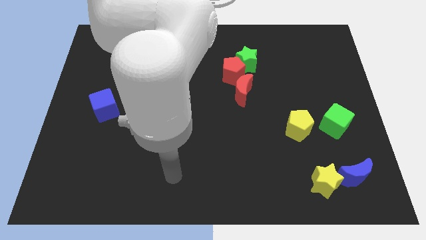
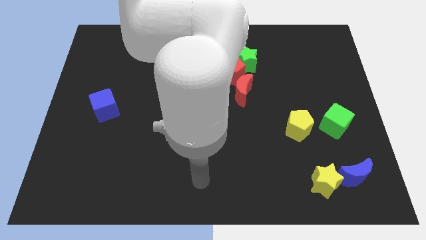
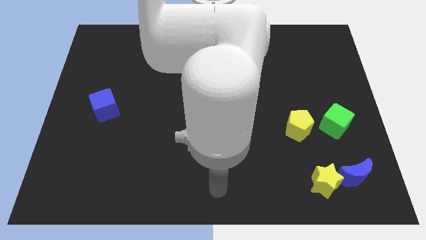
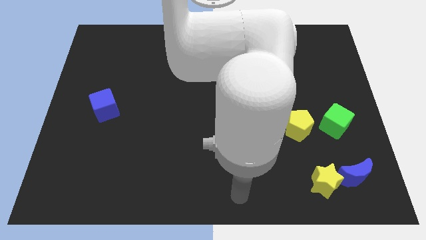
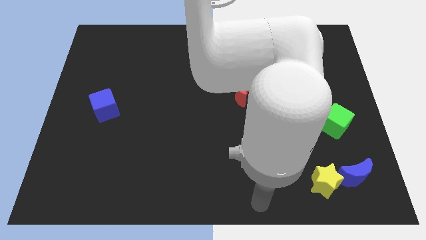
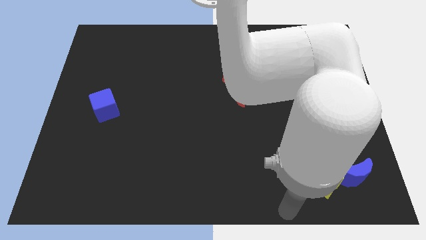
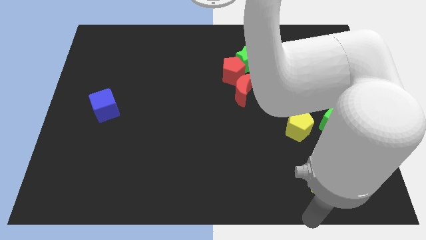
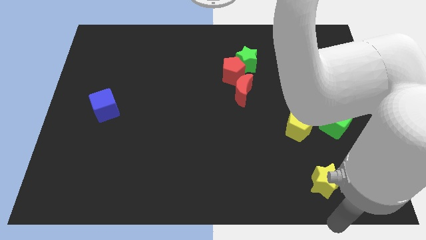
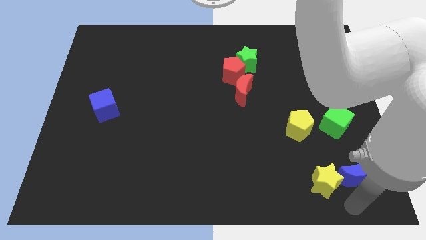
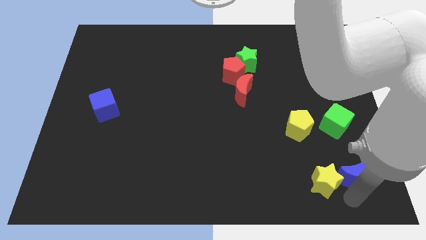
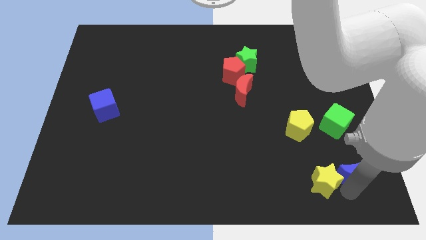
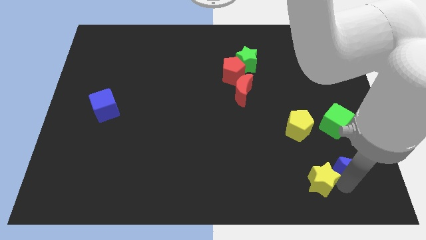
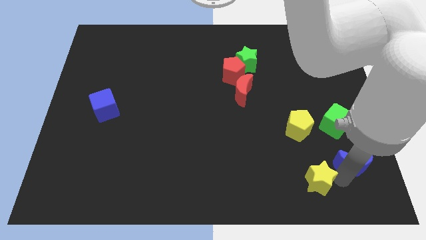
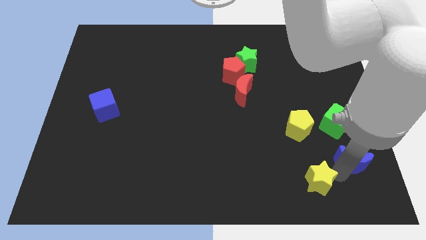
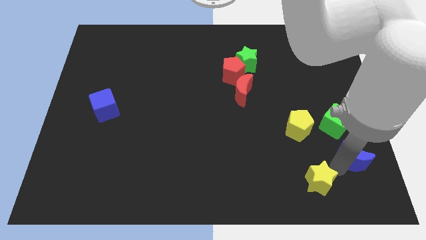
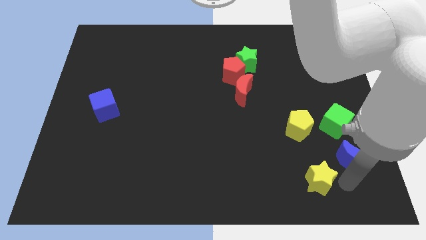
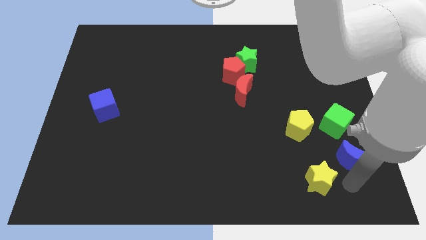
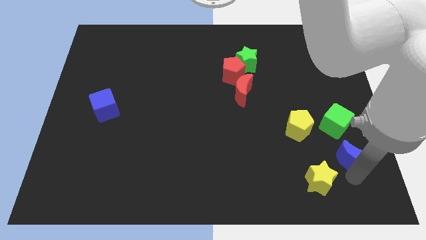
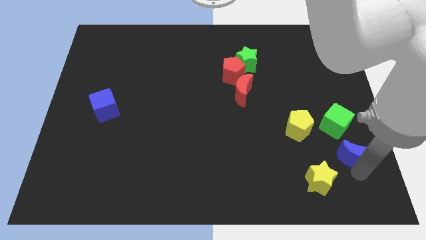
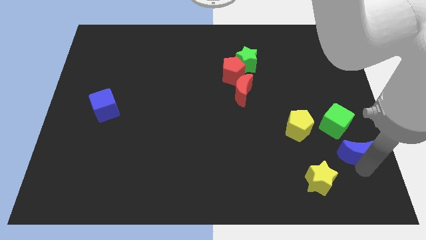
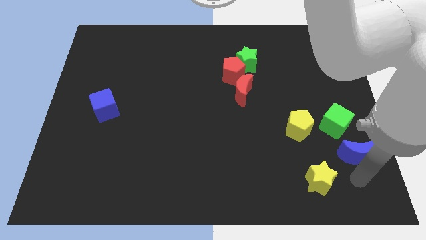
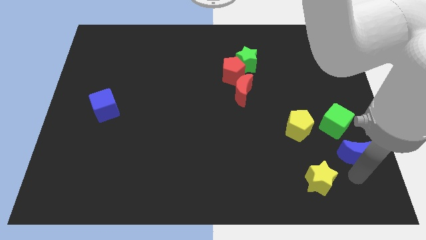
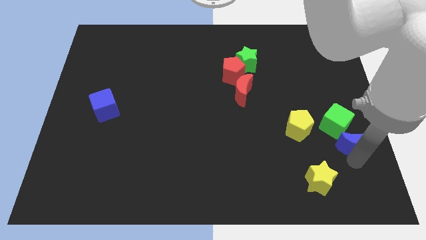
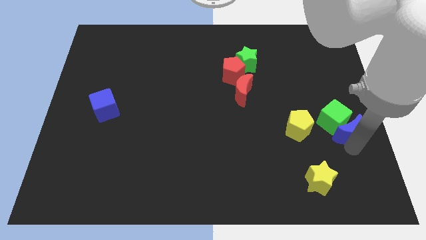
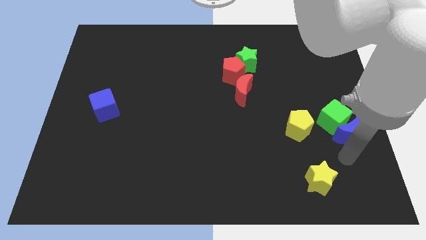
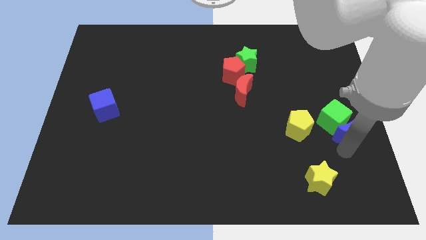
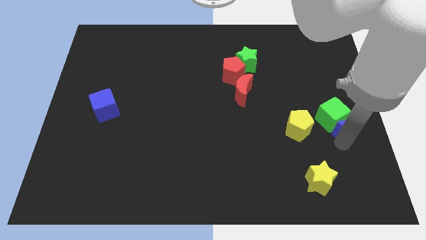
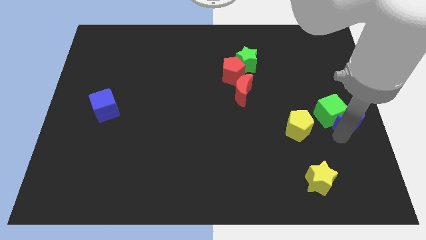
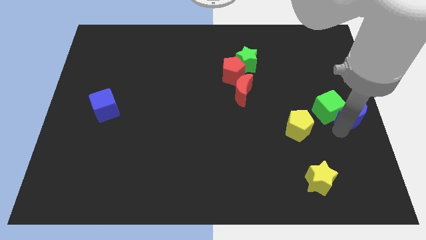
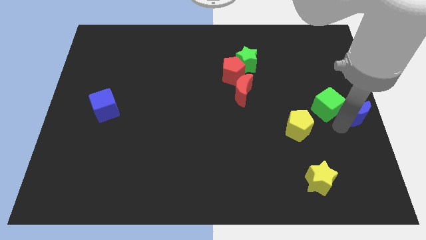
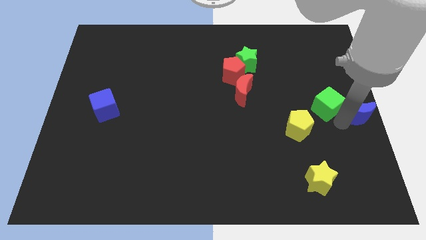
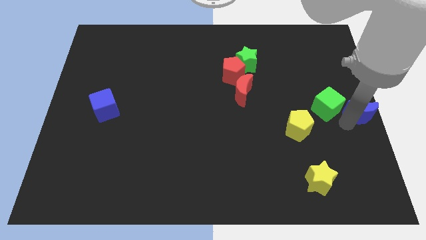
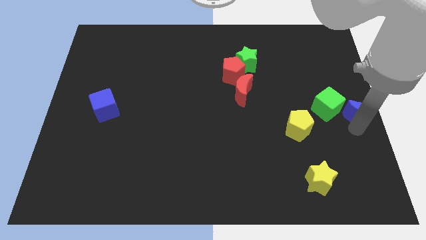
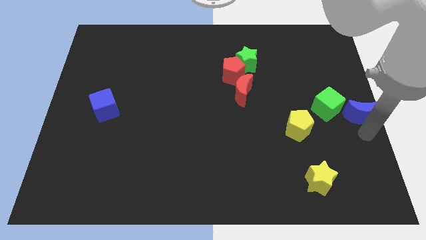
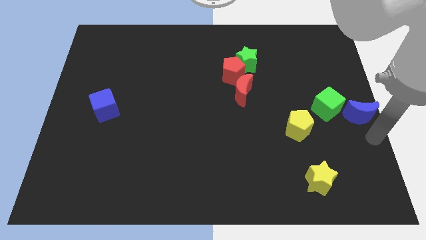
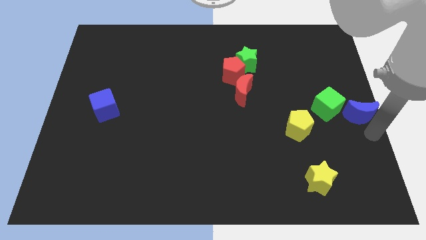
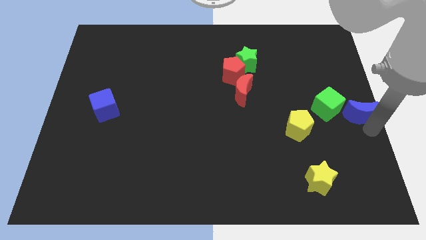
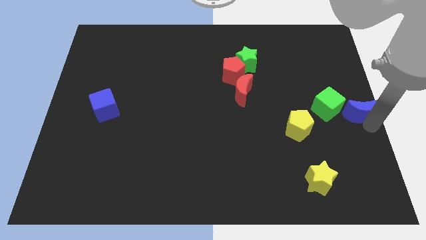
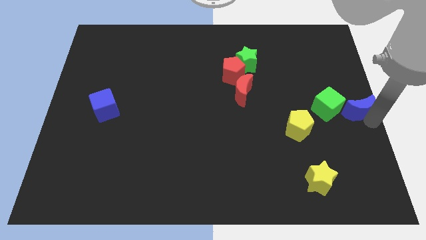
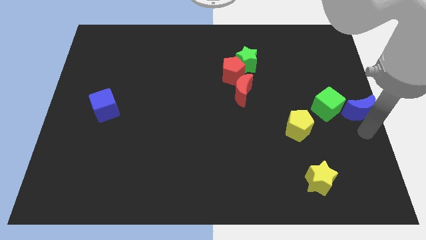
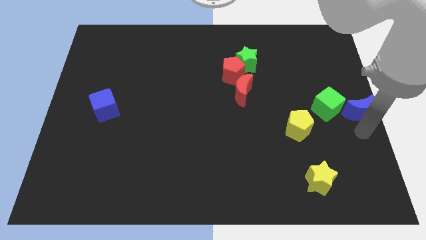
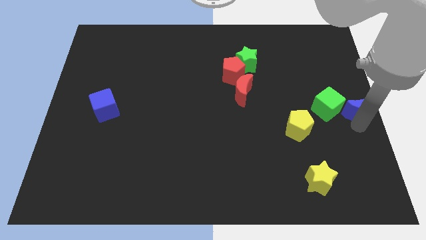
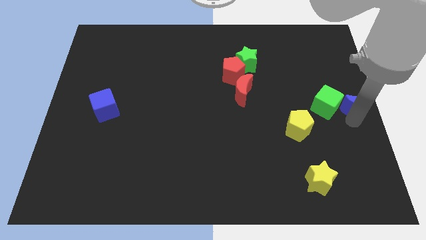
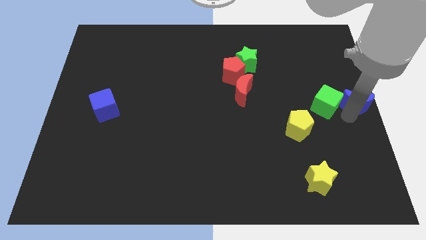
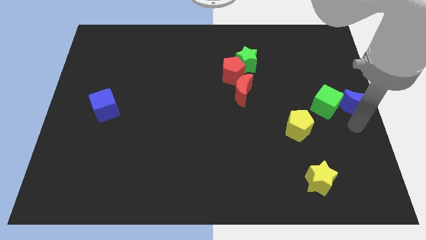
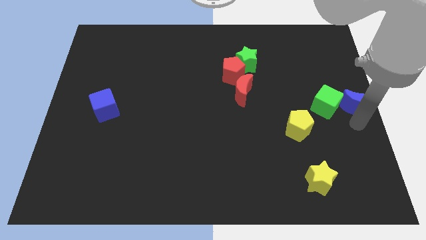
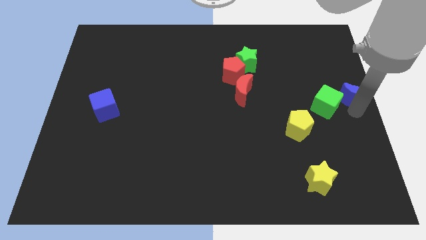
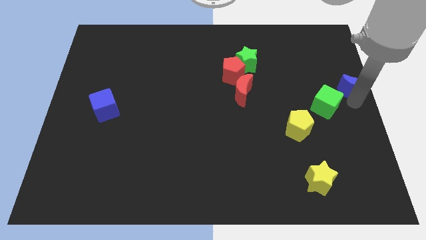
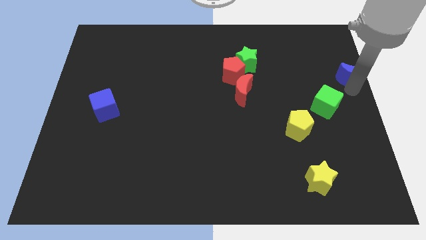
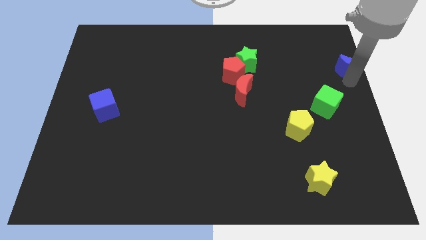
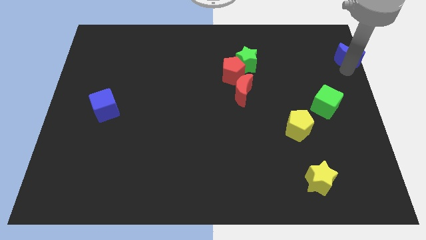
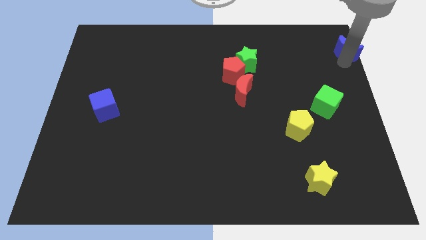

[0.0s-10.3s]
push the blue moon to the upper right corner

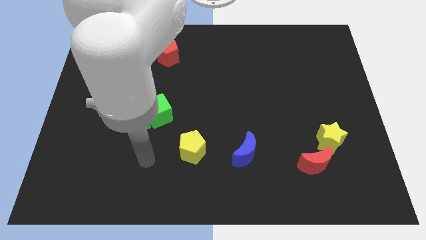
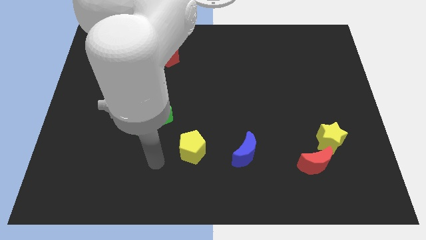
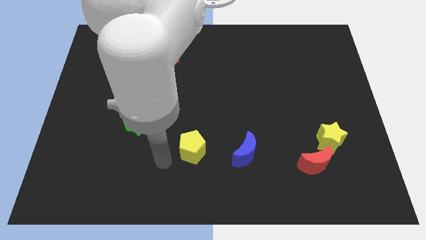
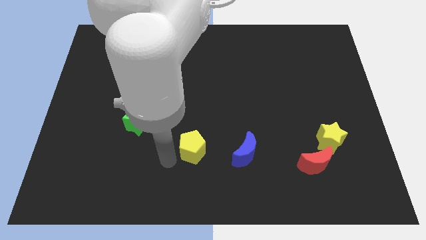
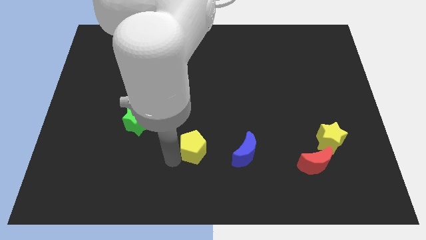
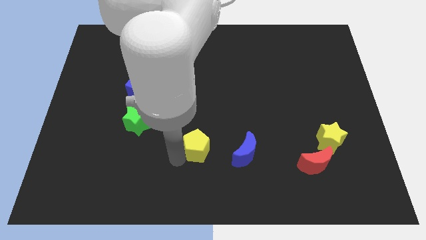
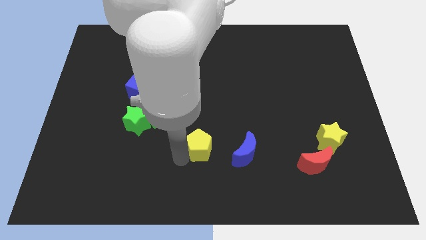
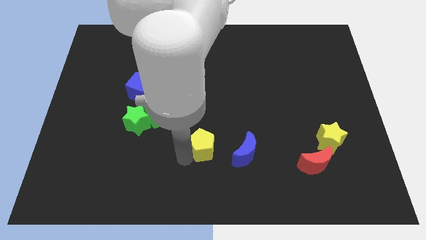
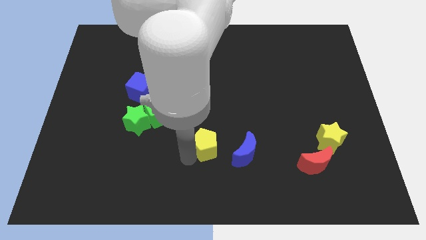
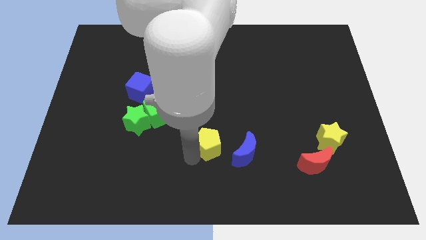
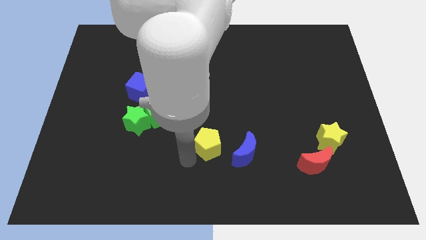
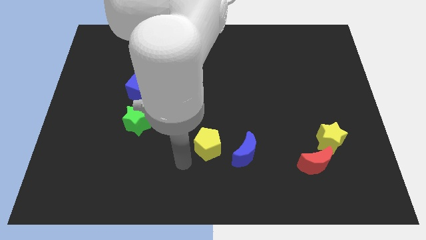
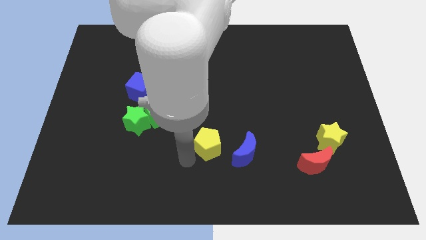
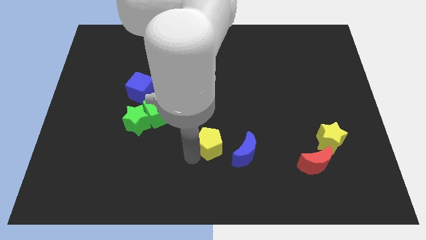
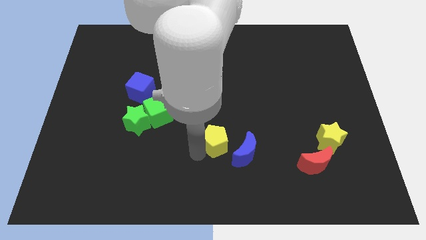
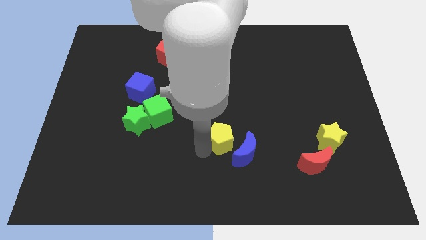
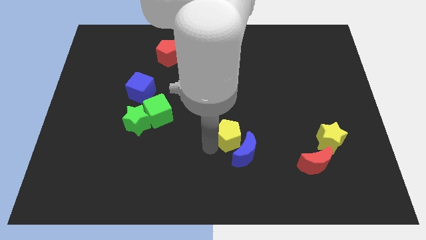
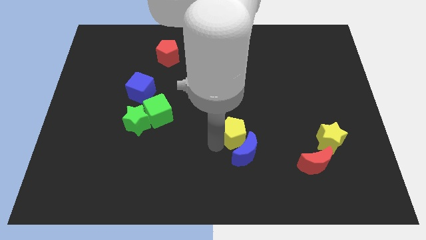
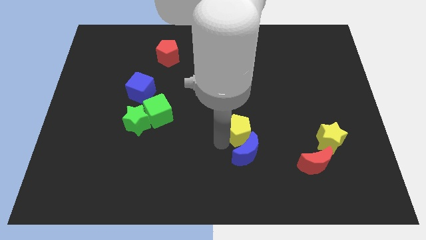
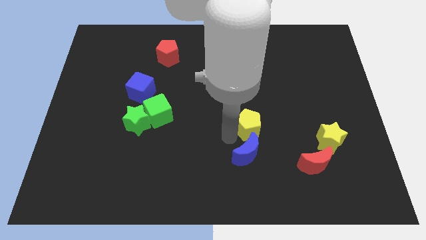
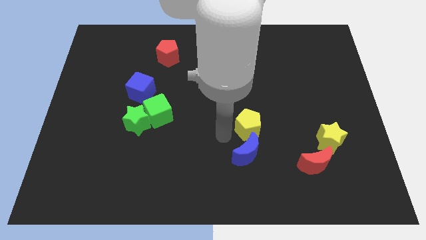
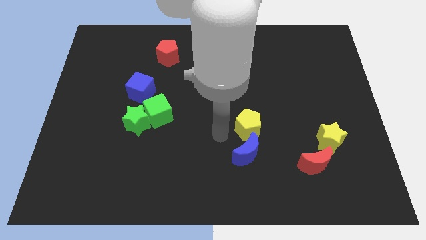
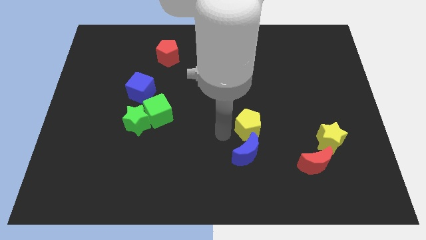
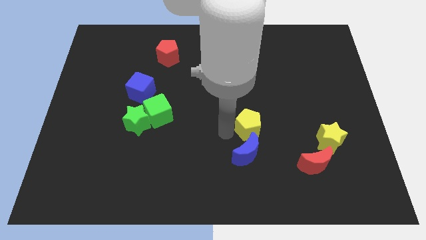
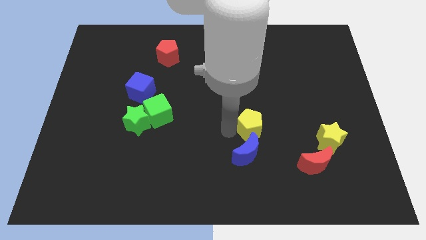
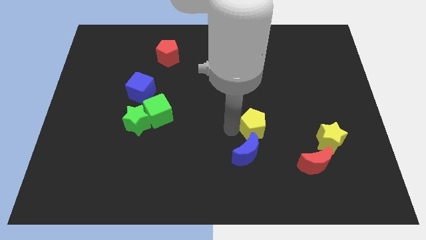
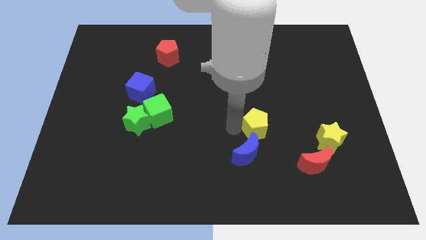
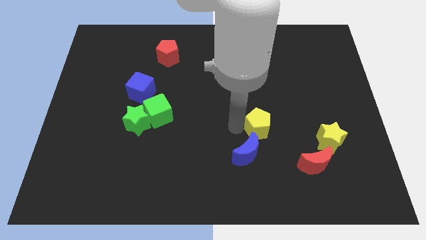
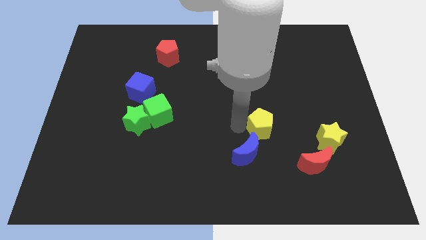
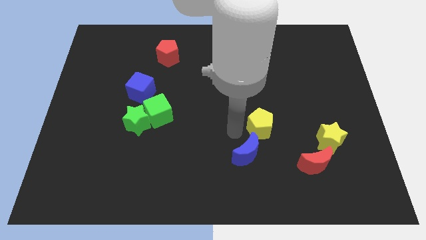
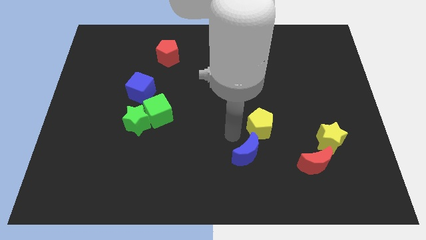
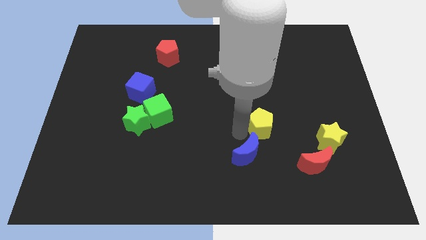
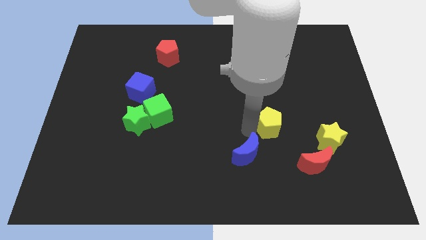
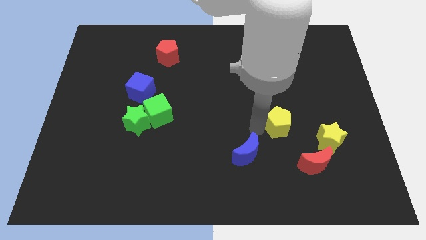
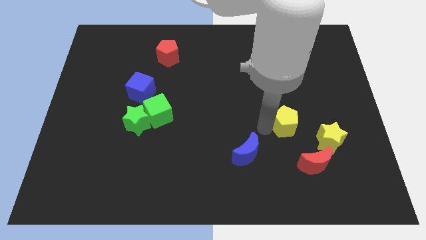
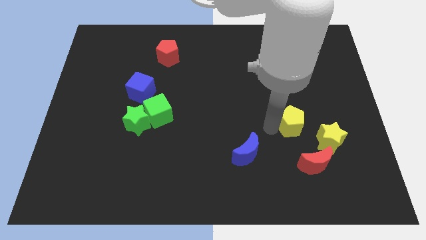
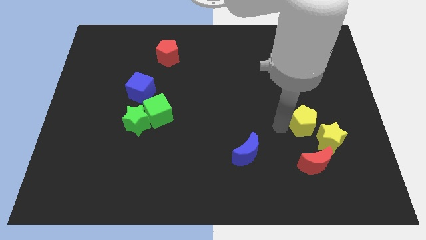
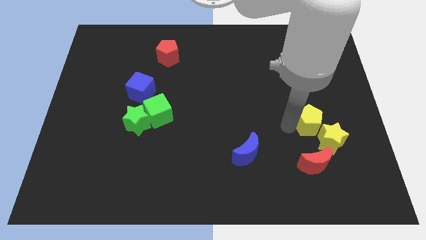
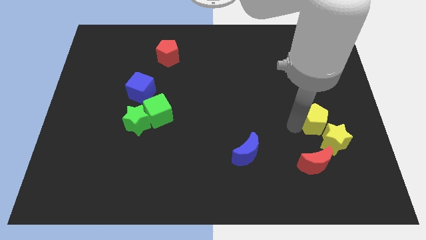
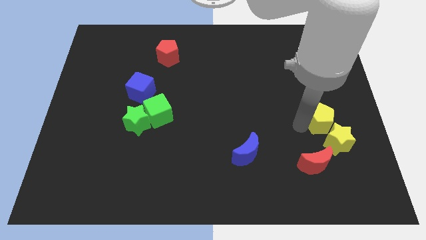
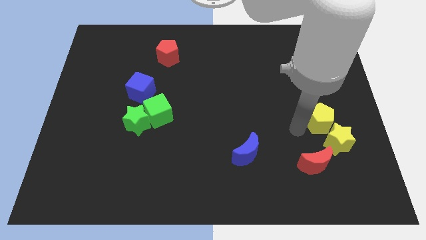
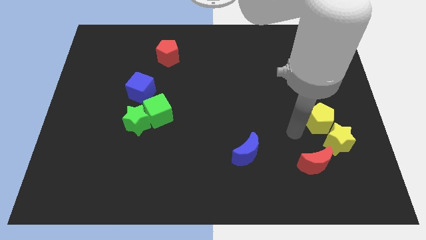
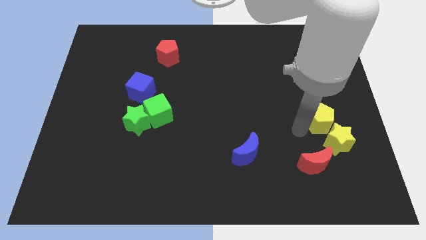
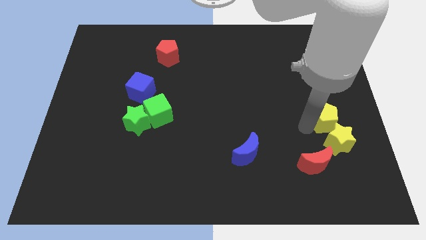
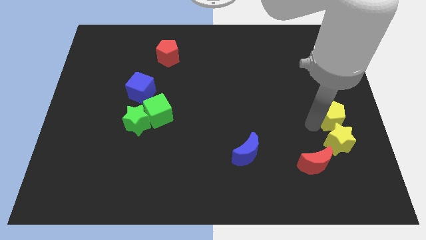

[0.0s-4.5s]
slide the yellow pentagon to the right side of the board
